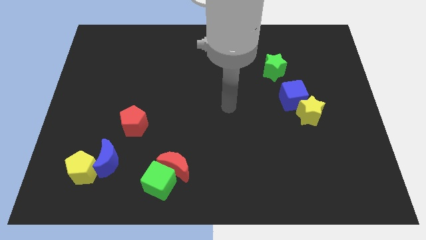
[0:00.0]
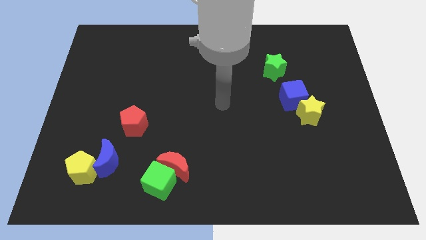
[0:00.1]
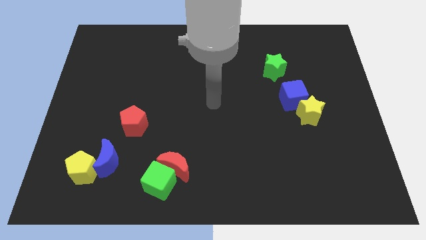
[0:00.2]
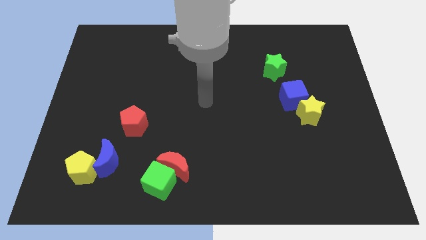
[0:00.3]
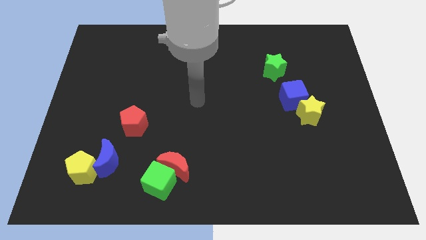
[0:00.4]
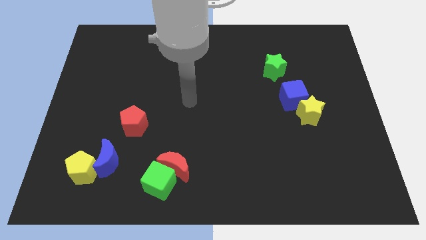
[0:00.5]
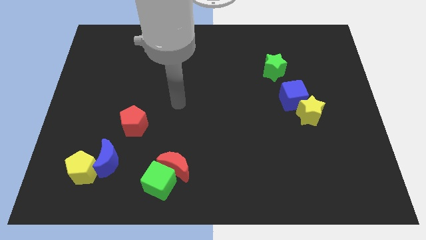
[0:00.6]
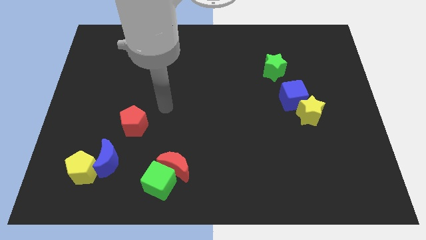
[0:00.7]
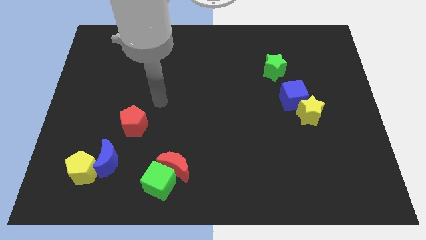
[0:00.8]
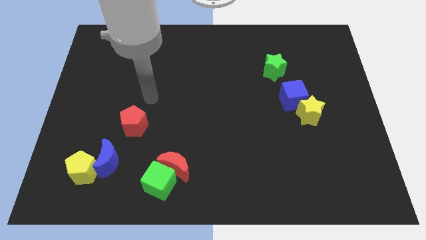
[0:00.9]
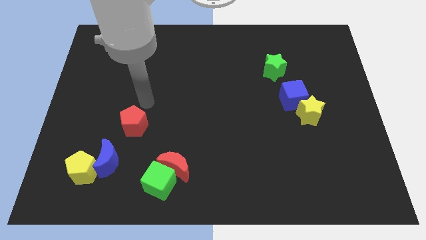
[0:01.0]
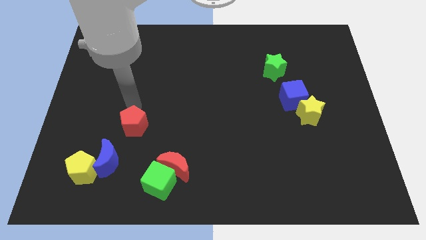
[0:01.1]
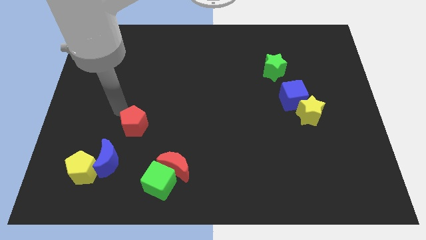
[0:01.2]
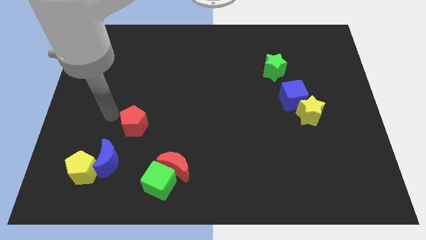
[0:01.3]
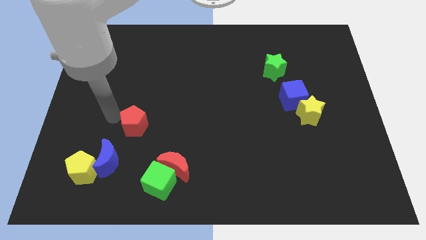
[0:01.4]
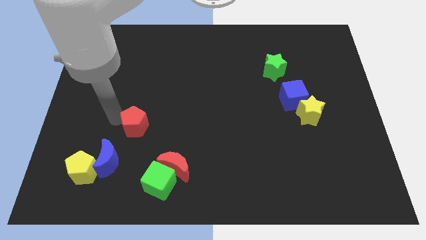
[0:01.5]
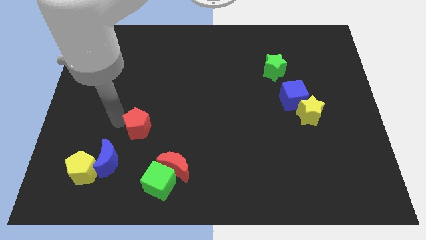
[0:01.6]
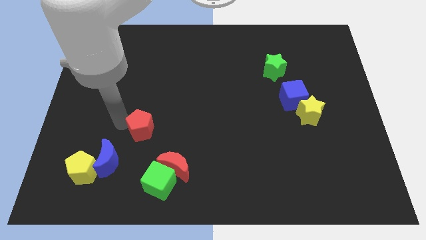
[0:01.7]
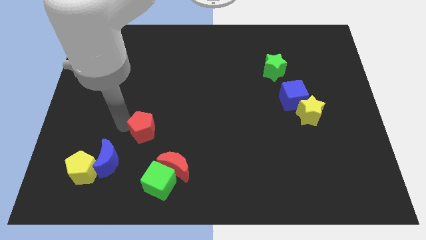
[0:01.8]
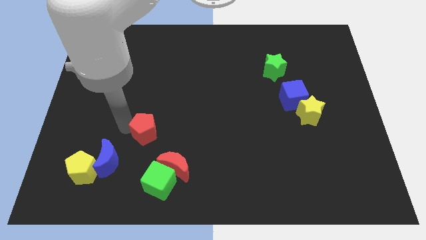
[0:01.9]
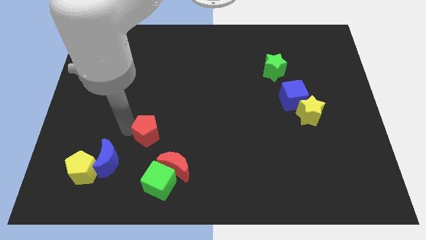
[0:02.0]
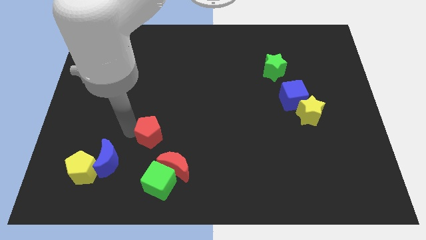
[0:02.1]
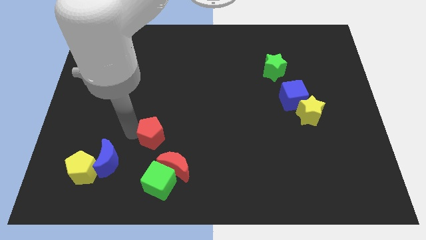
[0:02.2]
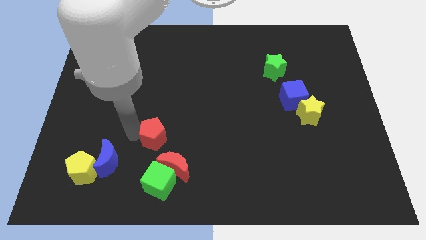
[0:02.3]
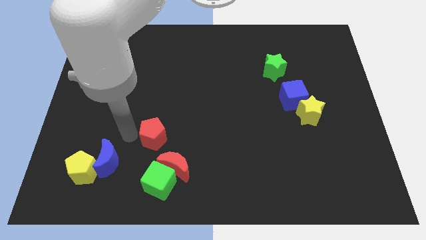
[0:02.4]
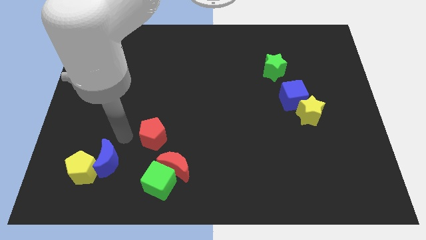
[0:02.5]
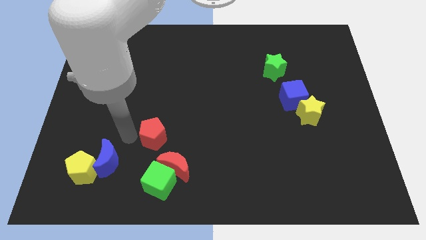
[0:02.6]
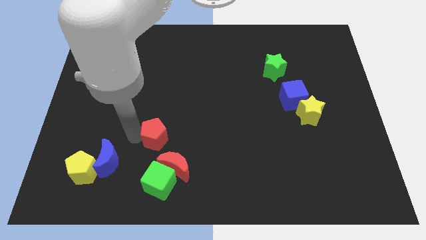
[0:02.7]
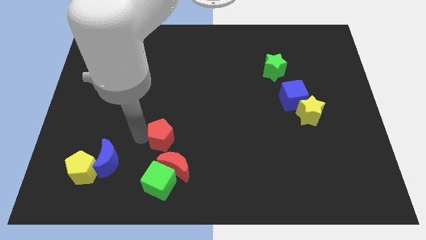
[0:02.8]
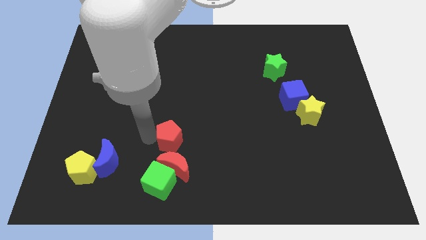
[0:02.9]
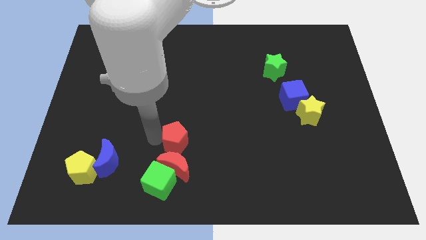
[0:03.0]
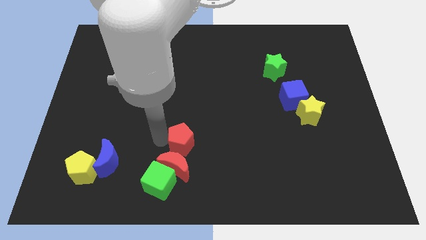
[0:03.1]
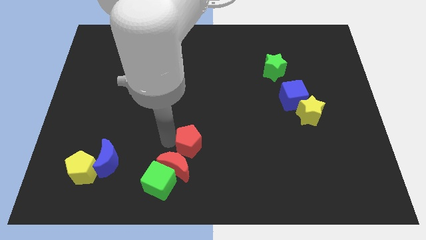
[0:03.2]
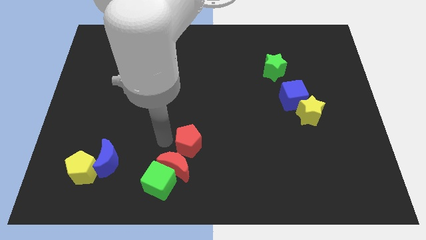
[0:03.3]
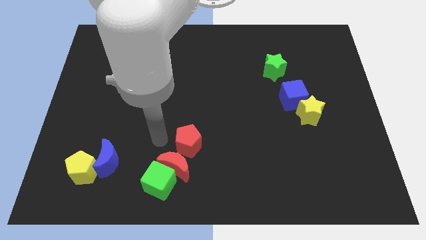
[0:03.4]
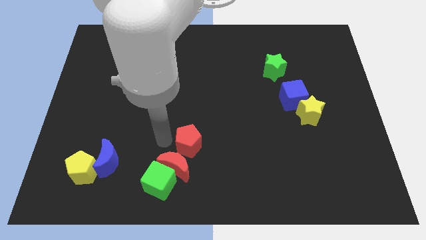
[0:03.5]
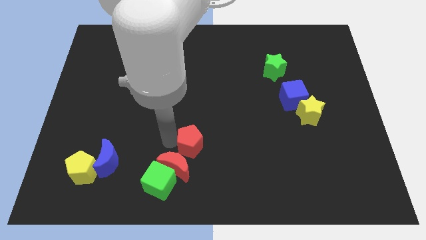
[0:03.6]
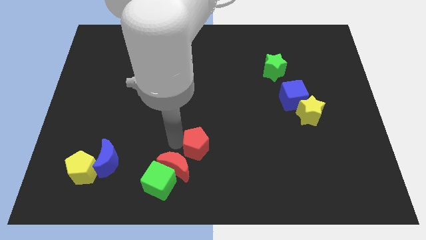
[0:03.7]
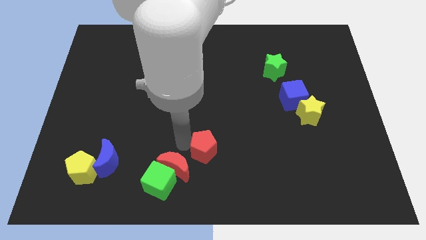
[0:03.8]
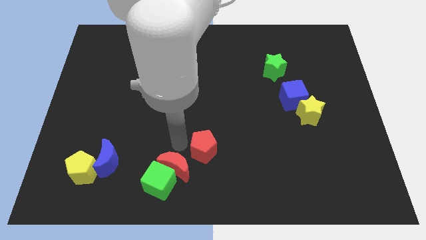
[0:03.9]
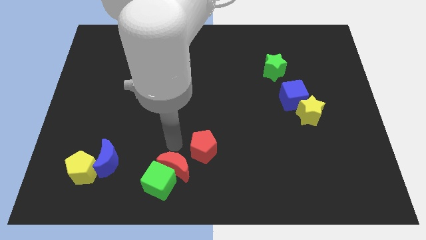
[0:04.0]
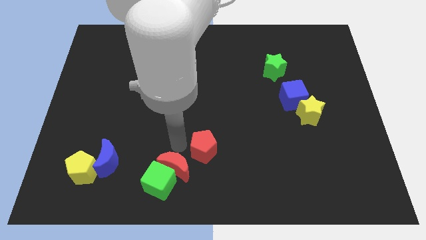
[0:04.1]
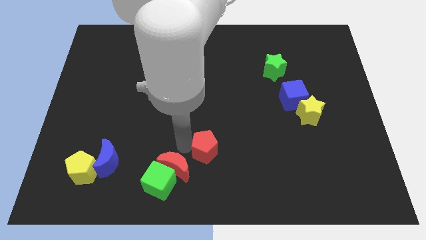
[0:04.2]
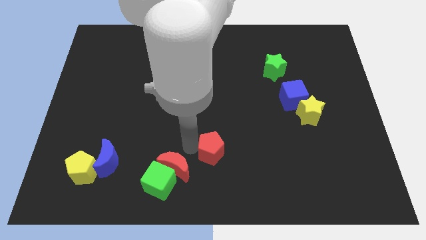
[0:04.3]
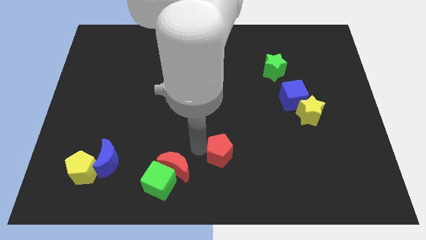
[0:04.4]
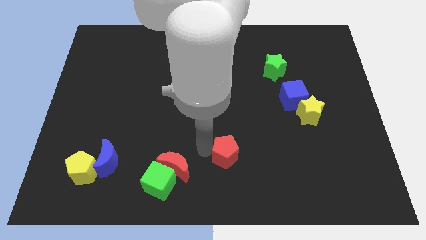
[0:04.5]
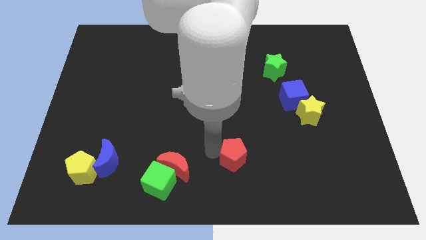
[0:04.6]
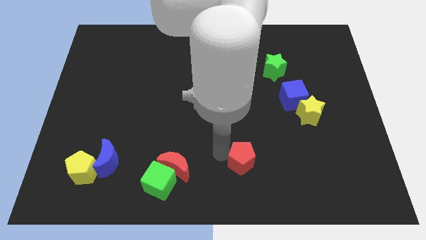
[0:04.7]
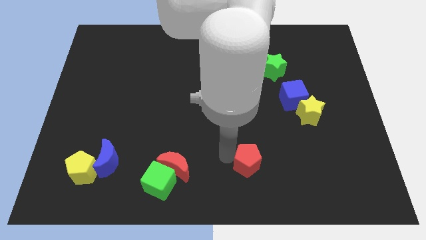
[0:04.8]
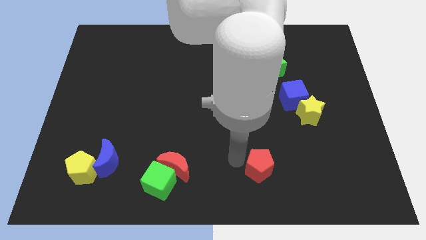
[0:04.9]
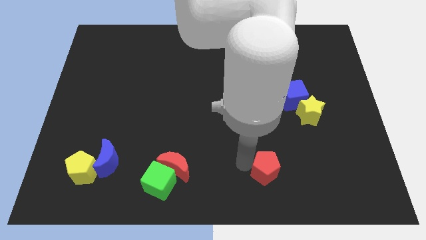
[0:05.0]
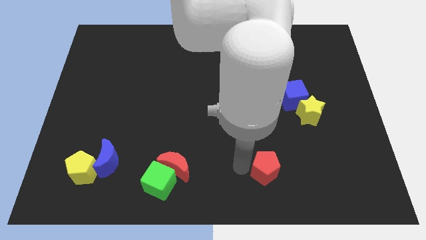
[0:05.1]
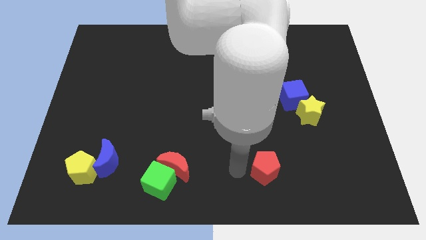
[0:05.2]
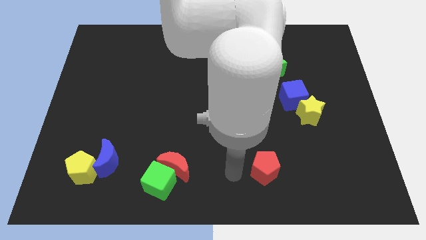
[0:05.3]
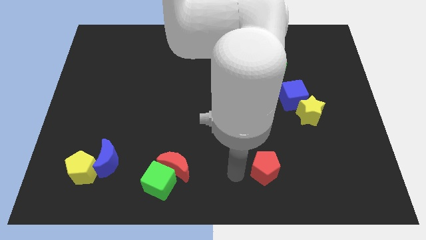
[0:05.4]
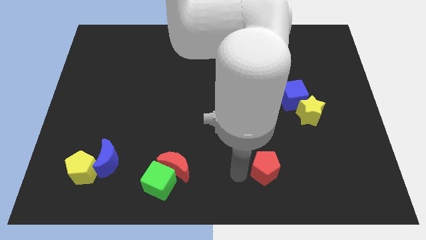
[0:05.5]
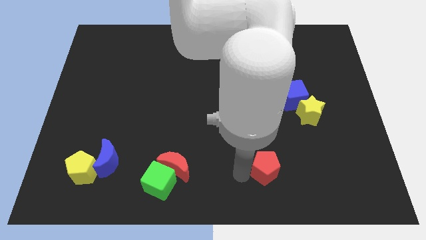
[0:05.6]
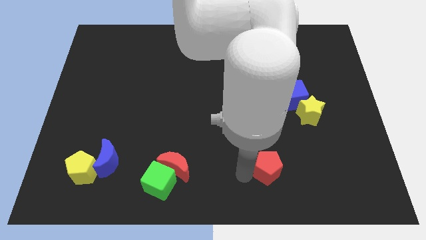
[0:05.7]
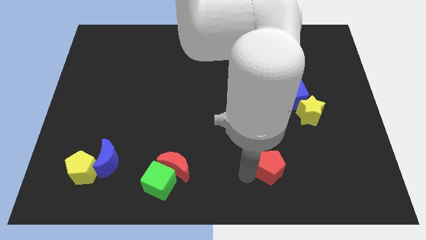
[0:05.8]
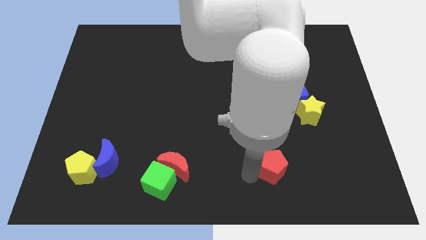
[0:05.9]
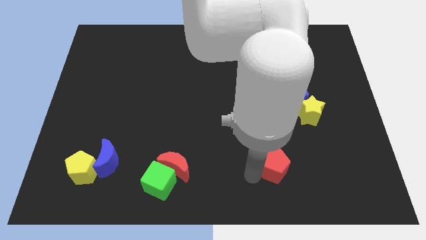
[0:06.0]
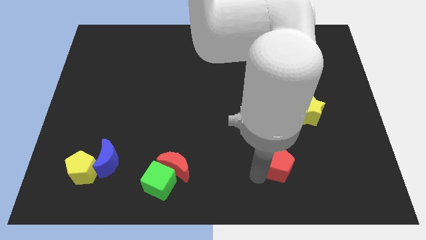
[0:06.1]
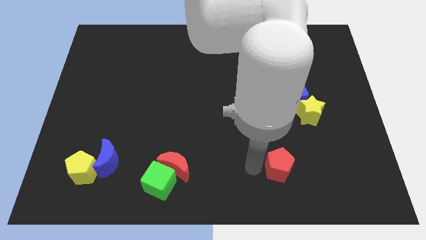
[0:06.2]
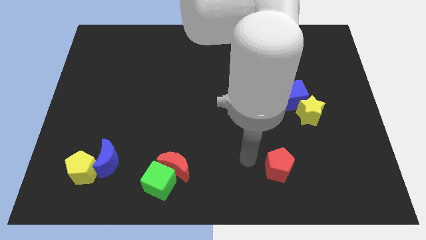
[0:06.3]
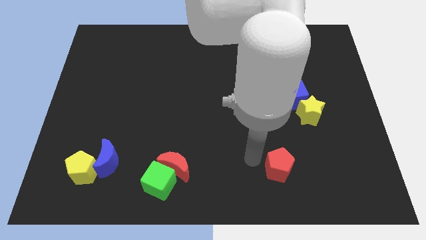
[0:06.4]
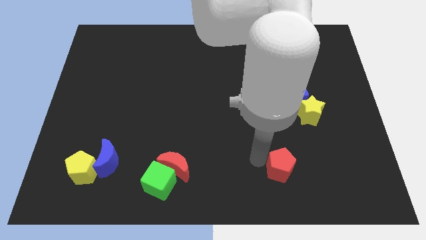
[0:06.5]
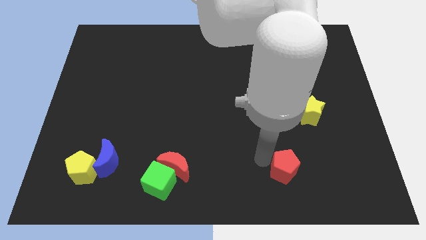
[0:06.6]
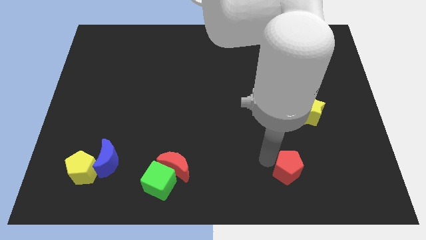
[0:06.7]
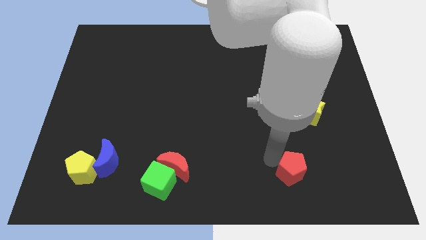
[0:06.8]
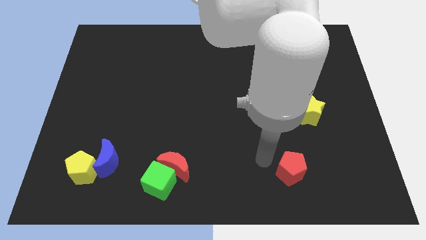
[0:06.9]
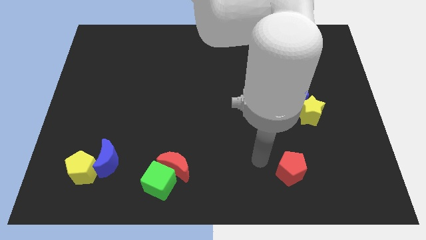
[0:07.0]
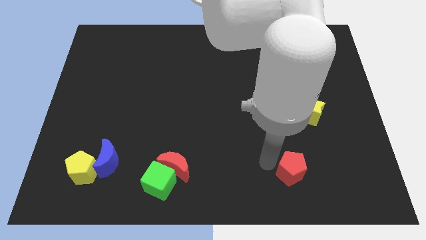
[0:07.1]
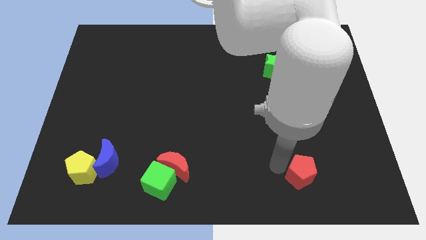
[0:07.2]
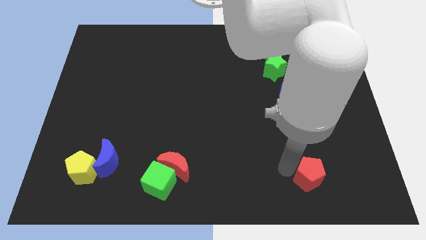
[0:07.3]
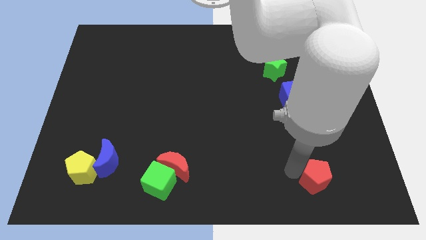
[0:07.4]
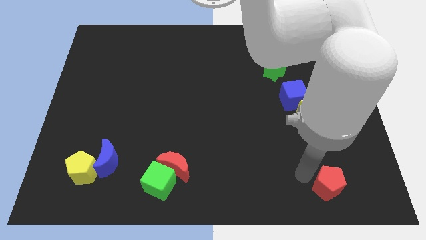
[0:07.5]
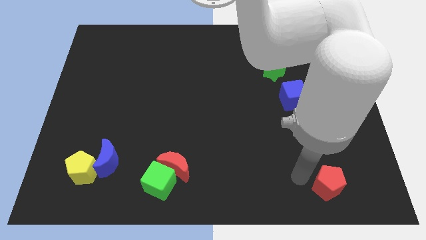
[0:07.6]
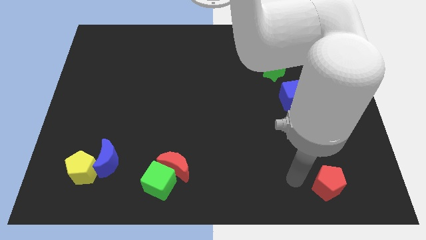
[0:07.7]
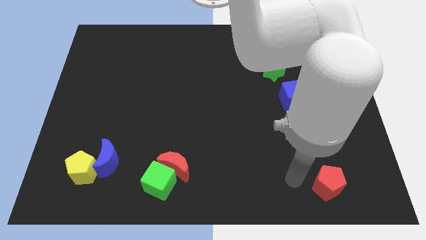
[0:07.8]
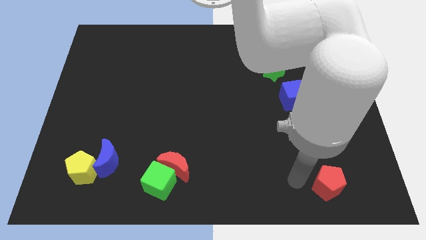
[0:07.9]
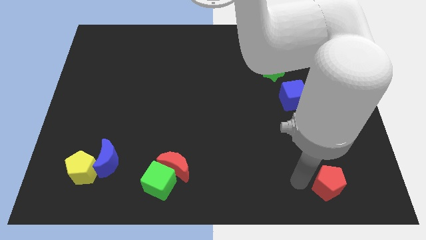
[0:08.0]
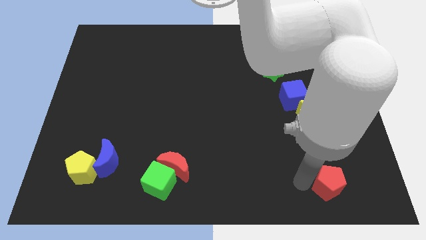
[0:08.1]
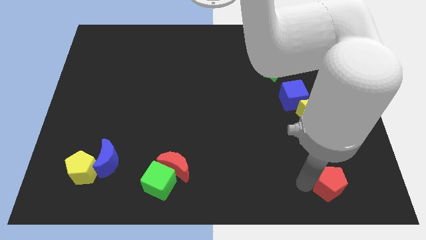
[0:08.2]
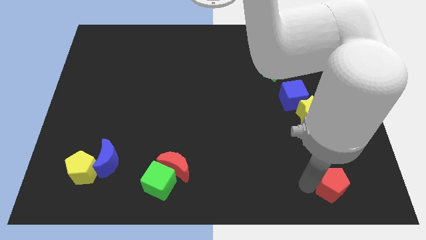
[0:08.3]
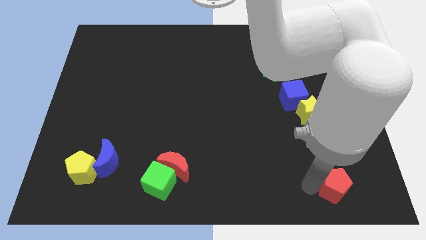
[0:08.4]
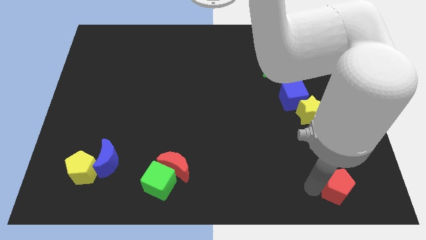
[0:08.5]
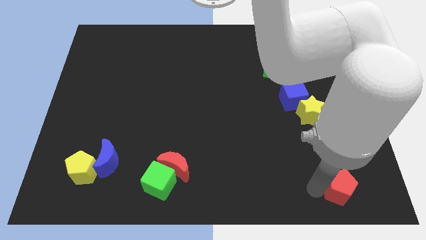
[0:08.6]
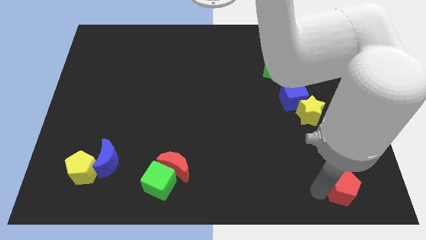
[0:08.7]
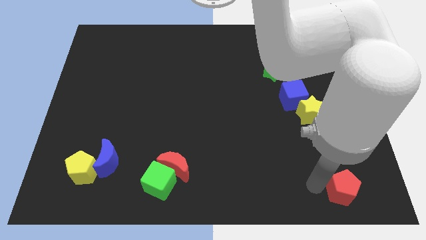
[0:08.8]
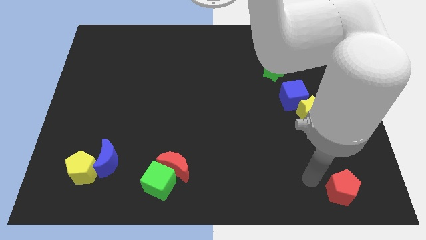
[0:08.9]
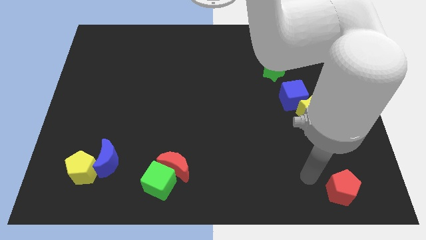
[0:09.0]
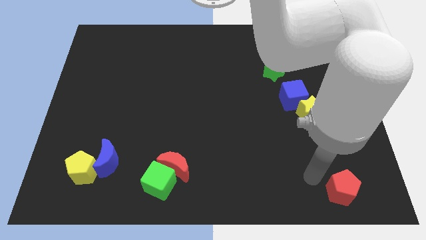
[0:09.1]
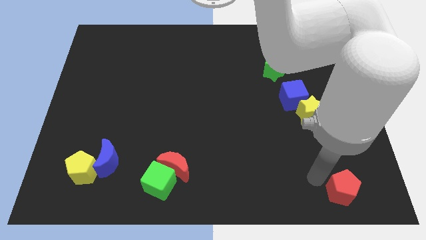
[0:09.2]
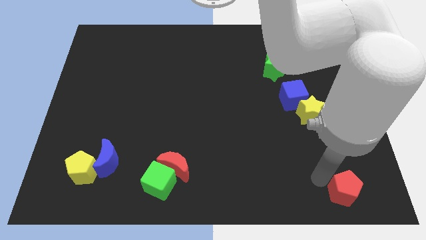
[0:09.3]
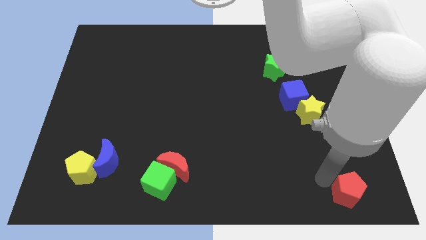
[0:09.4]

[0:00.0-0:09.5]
move the red pentagon to the bottom right
